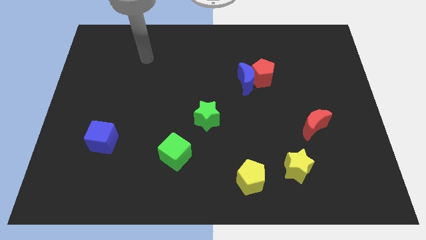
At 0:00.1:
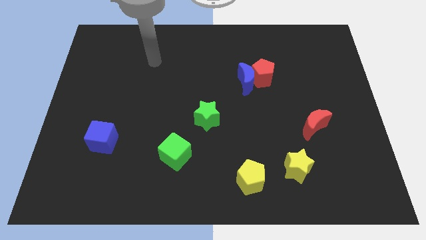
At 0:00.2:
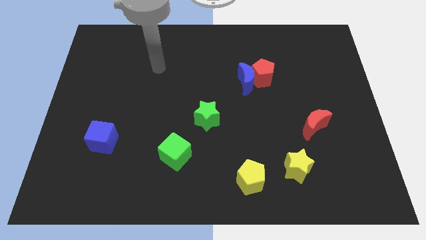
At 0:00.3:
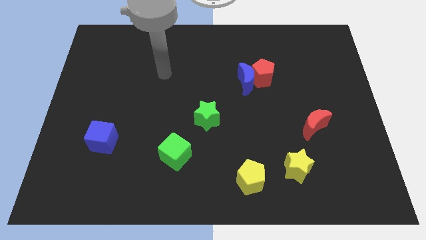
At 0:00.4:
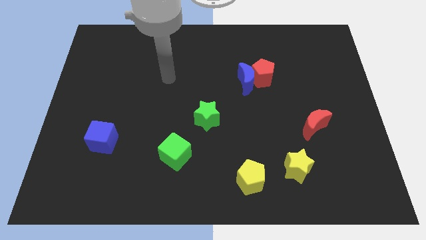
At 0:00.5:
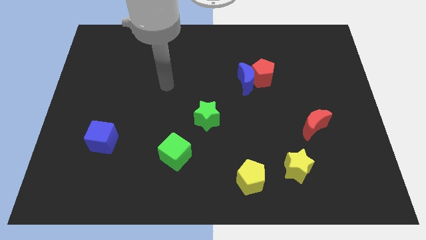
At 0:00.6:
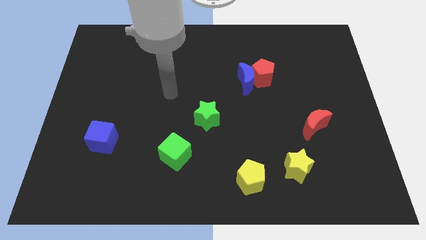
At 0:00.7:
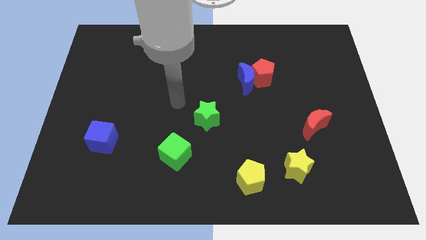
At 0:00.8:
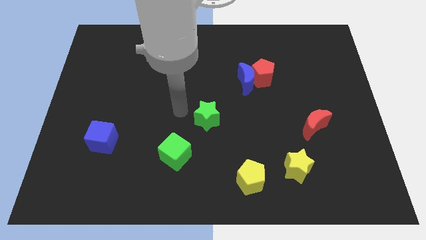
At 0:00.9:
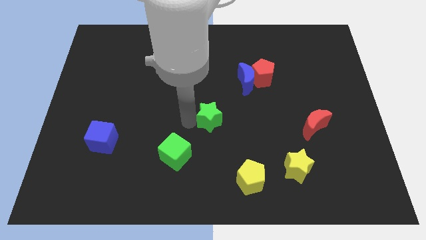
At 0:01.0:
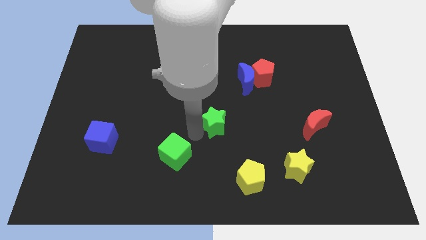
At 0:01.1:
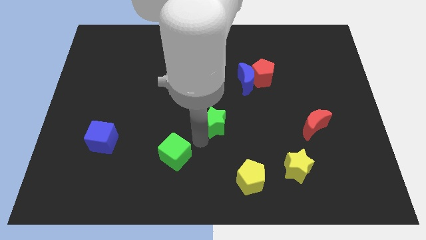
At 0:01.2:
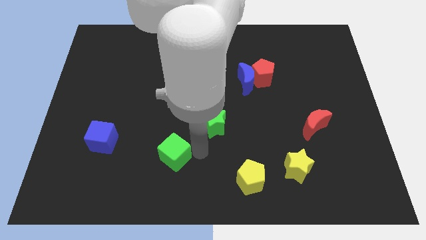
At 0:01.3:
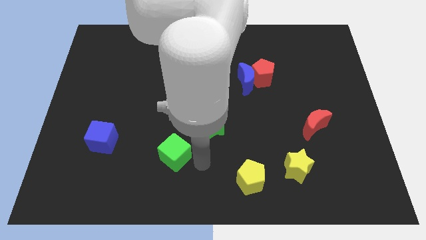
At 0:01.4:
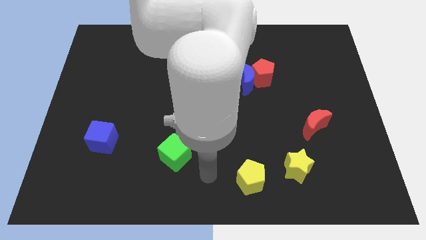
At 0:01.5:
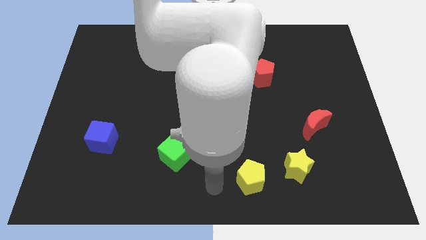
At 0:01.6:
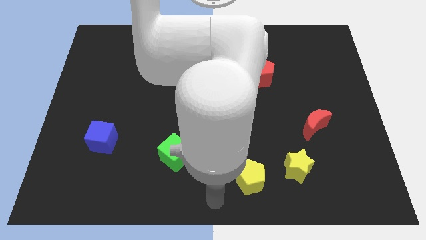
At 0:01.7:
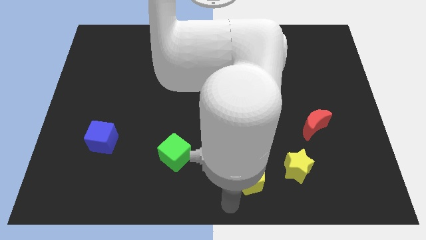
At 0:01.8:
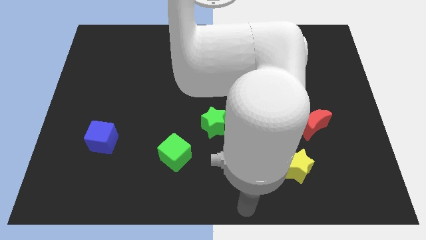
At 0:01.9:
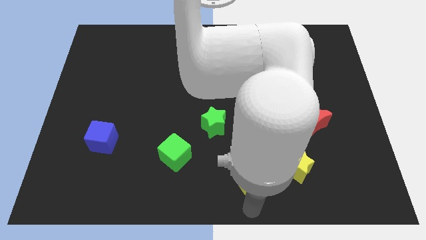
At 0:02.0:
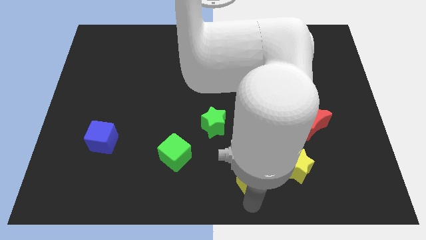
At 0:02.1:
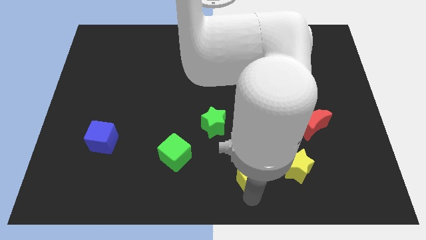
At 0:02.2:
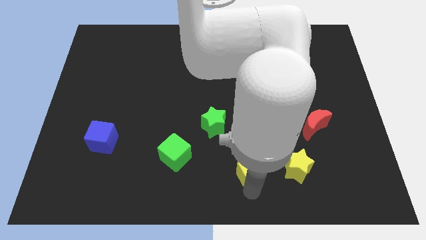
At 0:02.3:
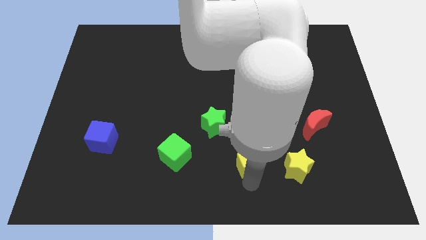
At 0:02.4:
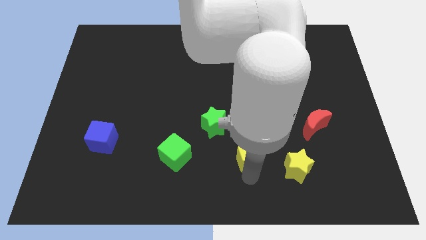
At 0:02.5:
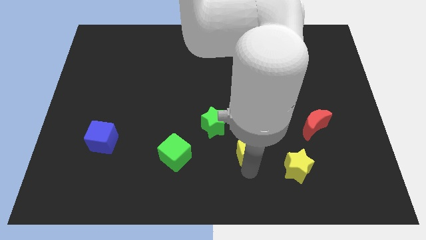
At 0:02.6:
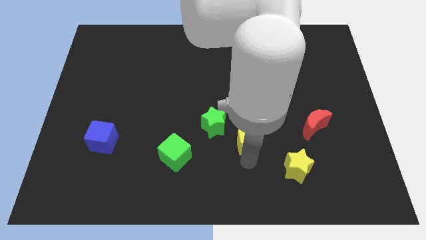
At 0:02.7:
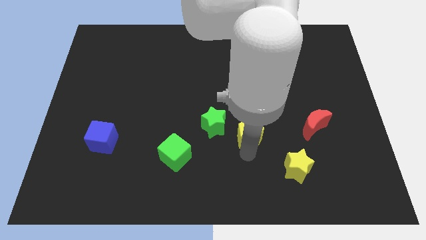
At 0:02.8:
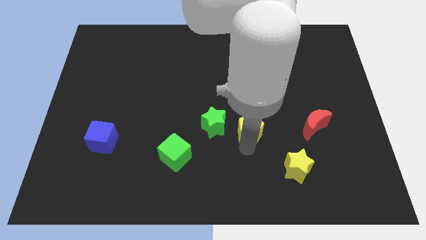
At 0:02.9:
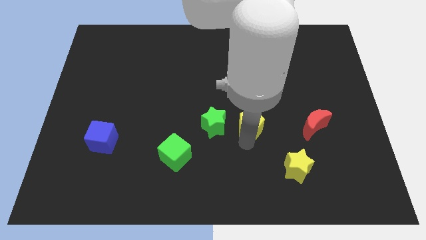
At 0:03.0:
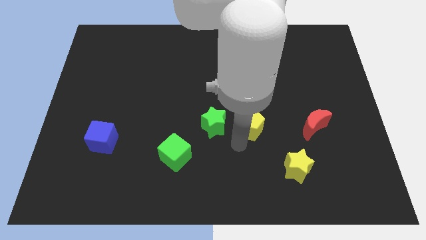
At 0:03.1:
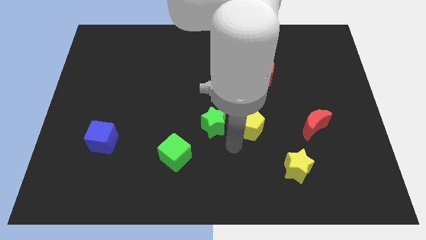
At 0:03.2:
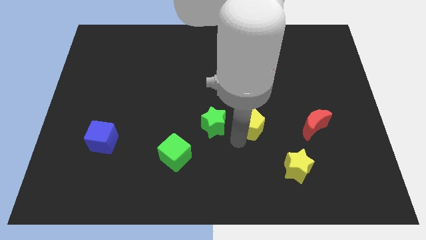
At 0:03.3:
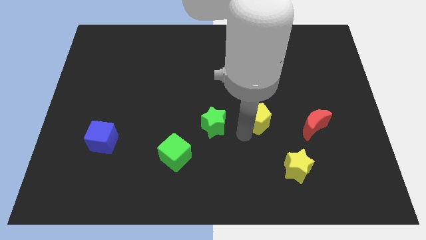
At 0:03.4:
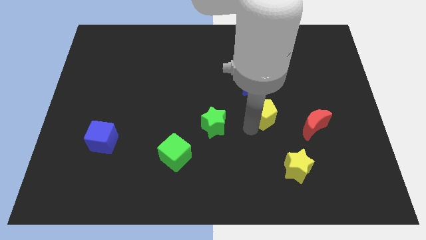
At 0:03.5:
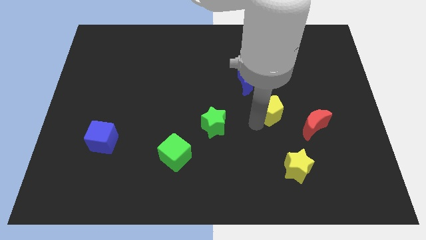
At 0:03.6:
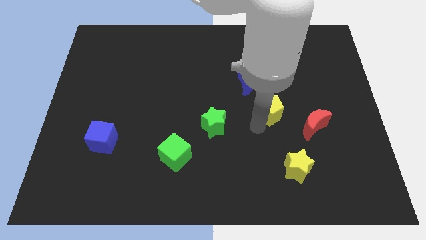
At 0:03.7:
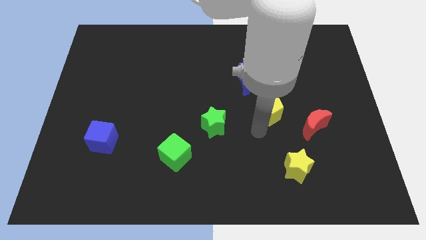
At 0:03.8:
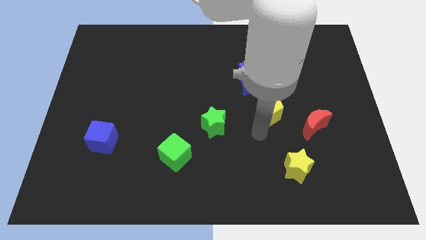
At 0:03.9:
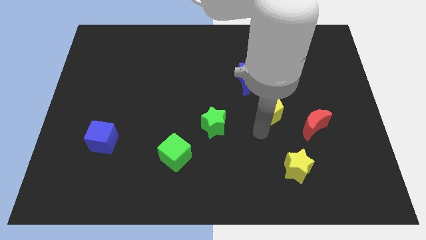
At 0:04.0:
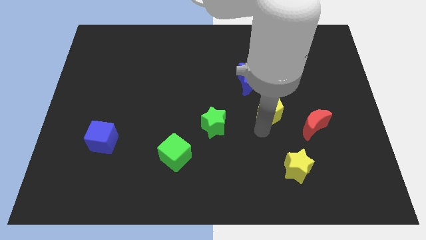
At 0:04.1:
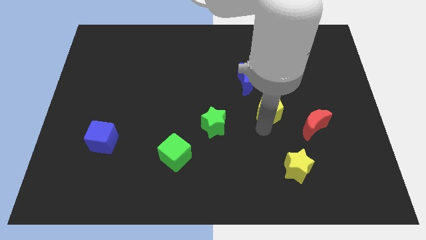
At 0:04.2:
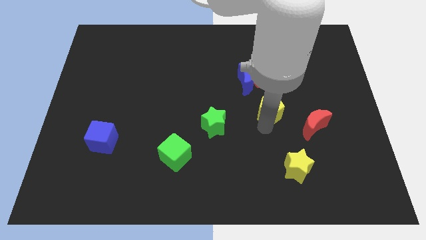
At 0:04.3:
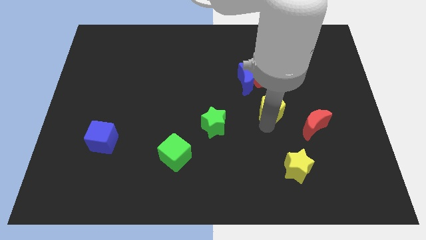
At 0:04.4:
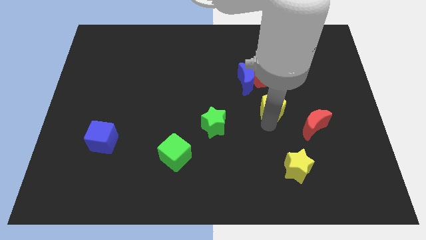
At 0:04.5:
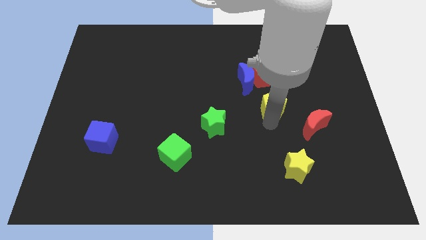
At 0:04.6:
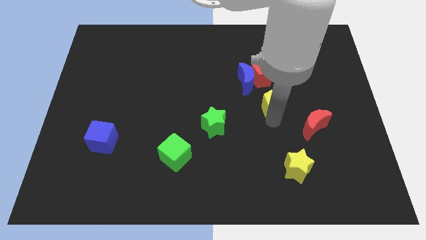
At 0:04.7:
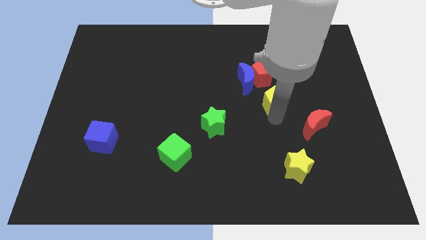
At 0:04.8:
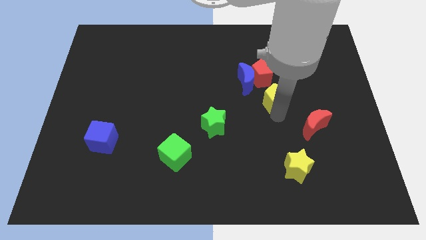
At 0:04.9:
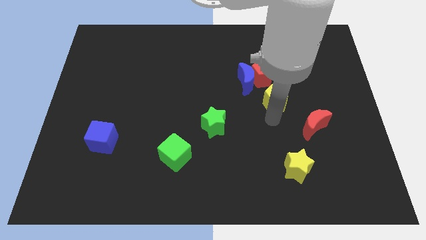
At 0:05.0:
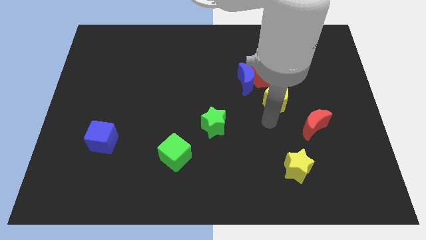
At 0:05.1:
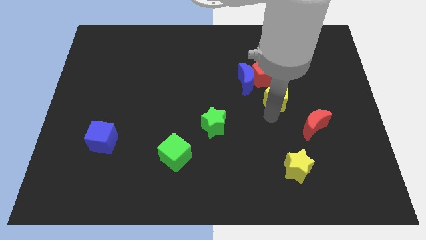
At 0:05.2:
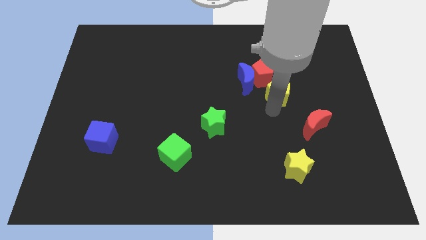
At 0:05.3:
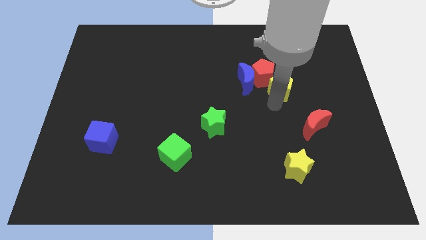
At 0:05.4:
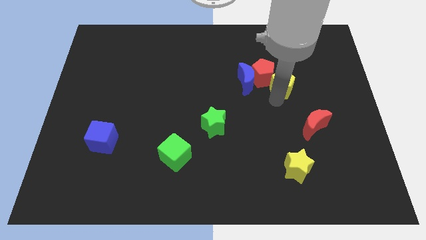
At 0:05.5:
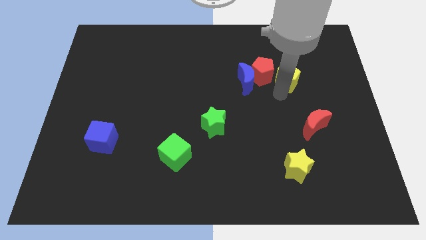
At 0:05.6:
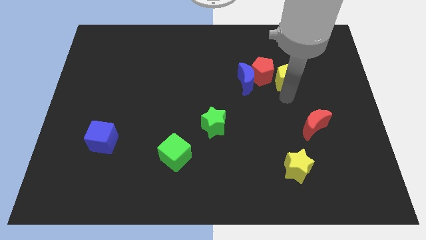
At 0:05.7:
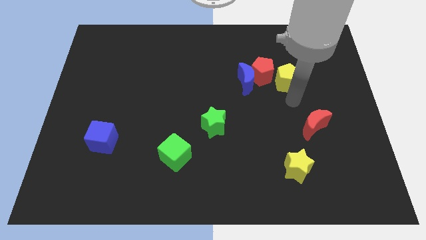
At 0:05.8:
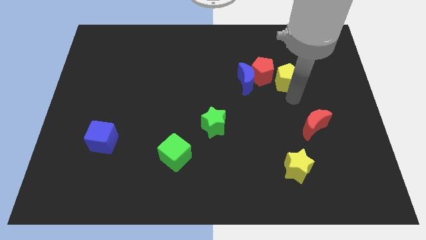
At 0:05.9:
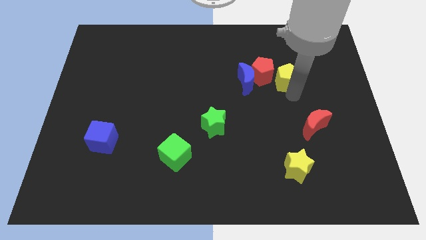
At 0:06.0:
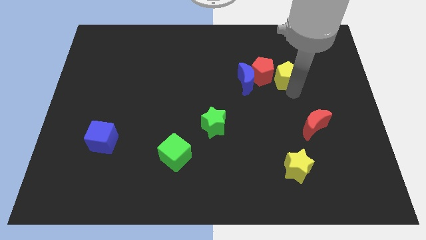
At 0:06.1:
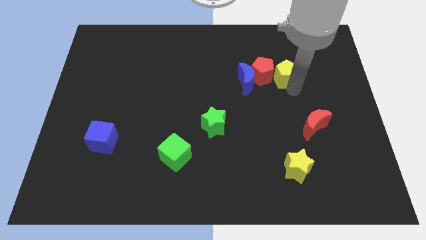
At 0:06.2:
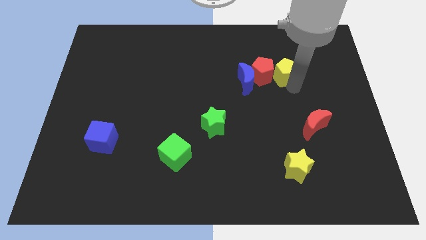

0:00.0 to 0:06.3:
slide the yellow pentagon diagonally up and to the right of the red pentagon

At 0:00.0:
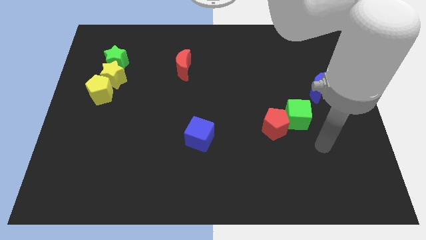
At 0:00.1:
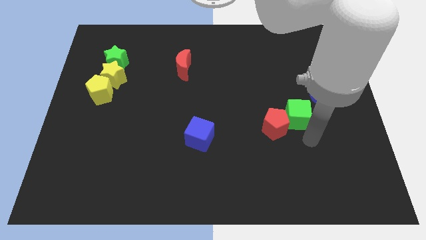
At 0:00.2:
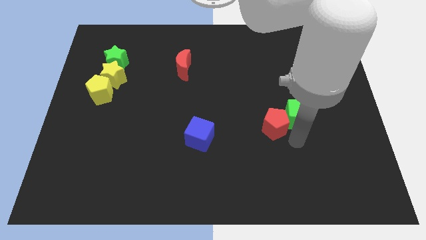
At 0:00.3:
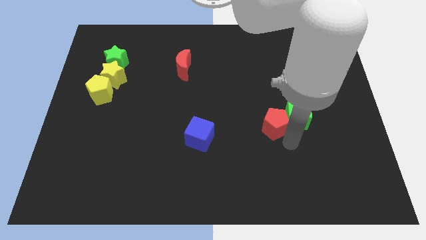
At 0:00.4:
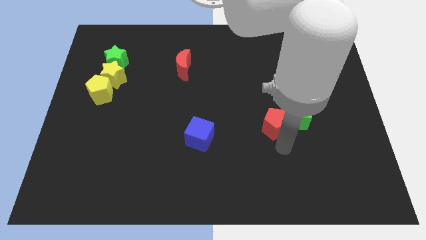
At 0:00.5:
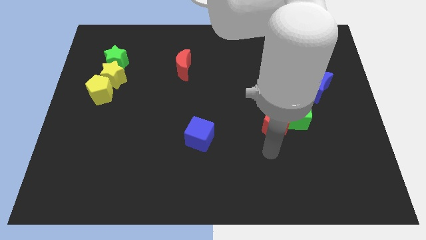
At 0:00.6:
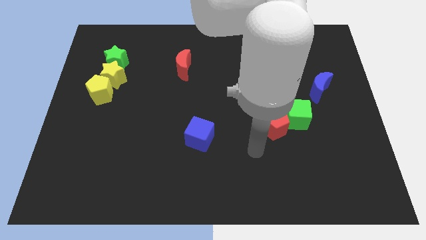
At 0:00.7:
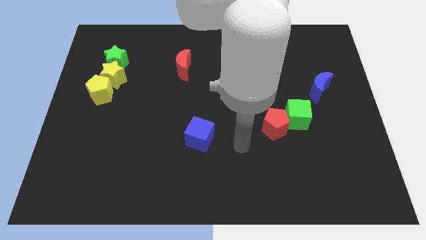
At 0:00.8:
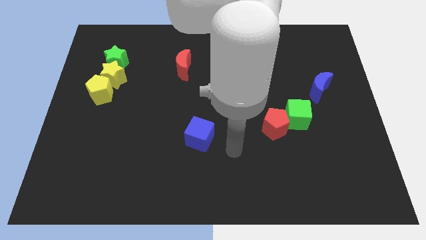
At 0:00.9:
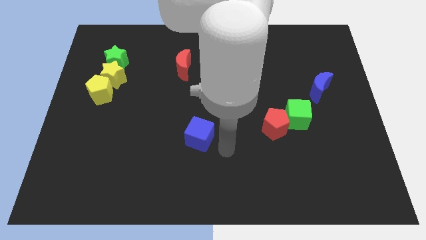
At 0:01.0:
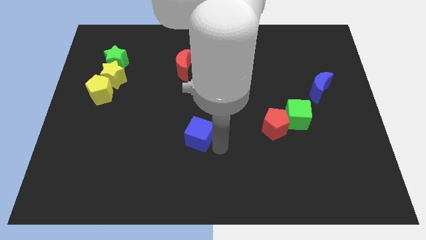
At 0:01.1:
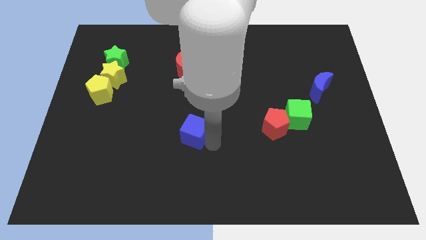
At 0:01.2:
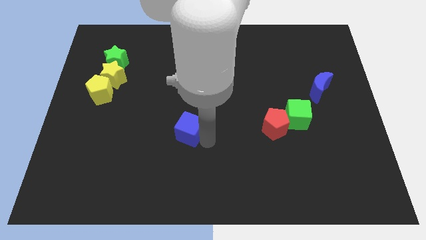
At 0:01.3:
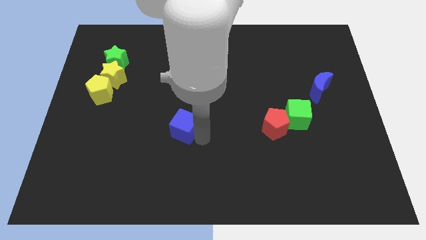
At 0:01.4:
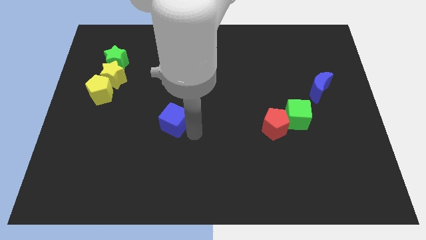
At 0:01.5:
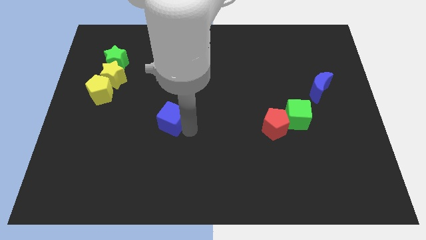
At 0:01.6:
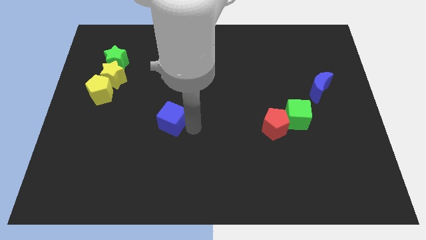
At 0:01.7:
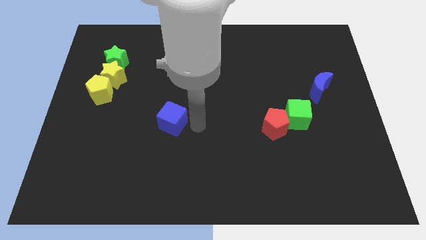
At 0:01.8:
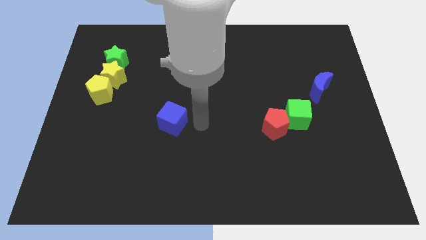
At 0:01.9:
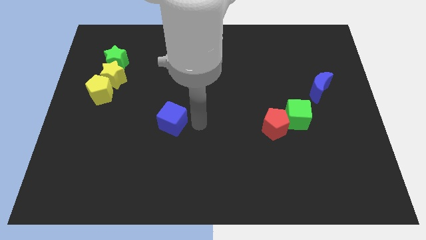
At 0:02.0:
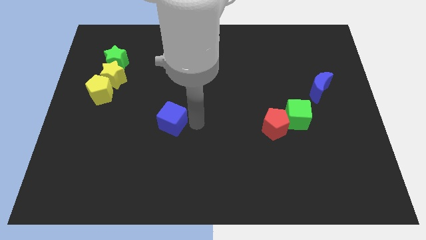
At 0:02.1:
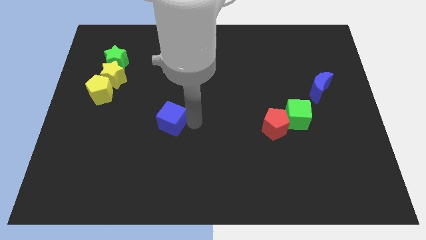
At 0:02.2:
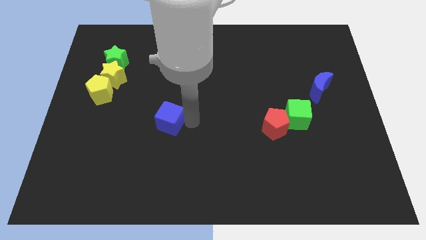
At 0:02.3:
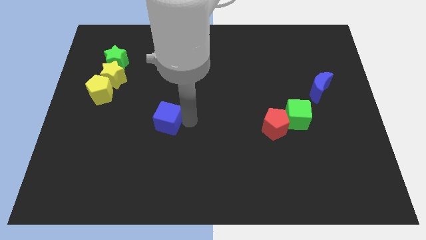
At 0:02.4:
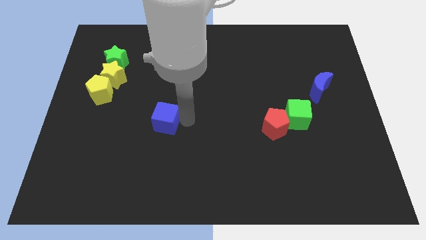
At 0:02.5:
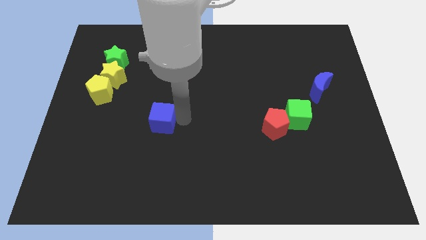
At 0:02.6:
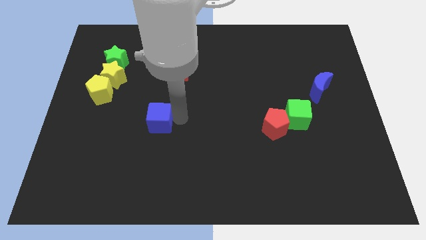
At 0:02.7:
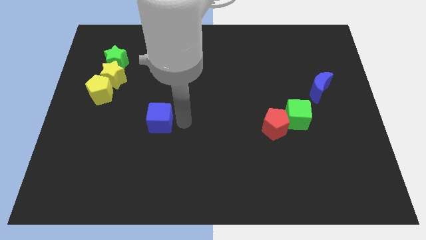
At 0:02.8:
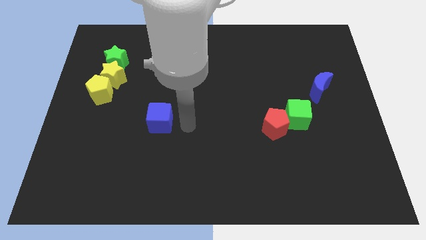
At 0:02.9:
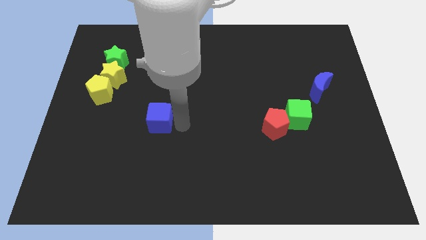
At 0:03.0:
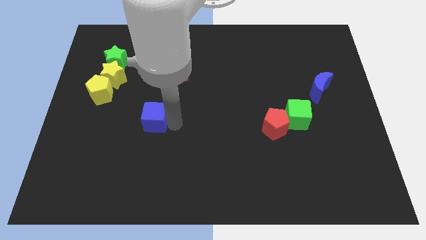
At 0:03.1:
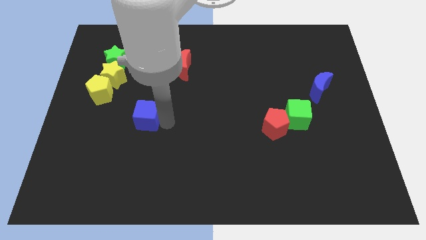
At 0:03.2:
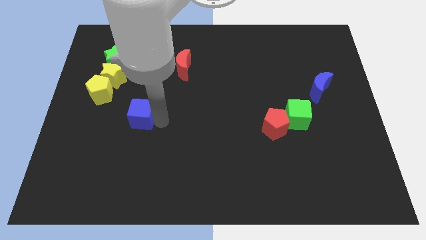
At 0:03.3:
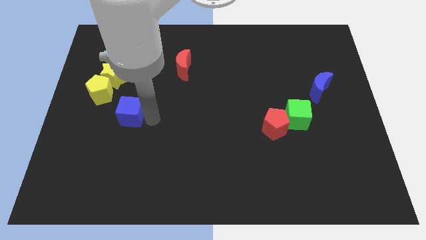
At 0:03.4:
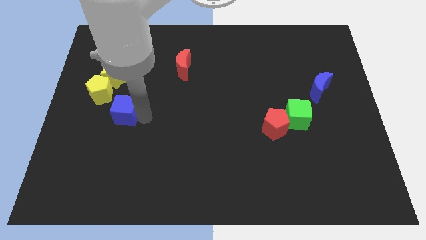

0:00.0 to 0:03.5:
put the blue cube to the bottom of the yellow star
